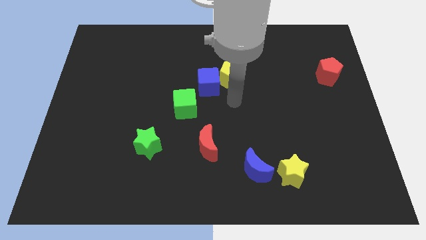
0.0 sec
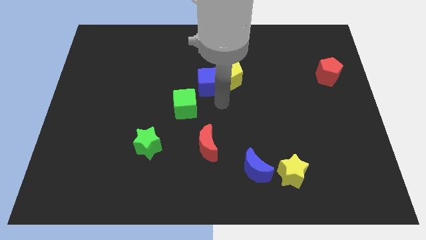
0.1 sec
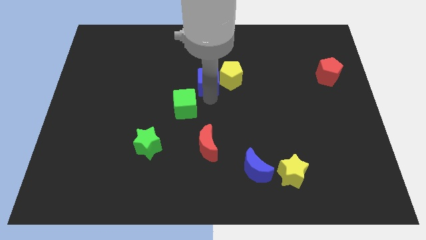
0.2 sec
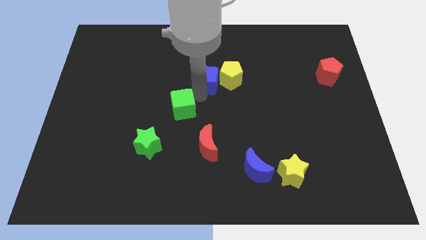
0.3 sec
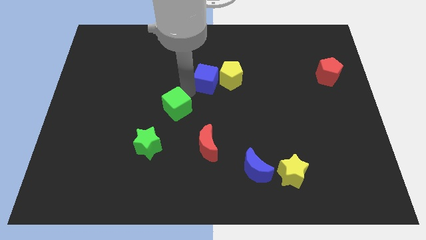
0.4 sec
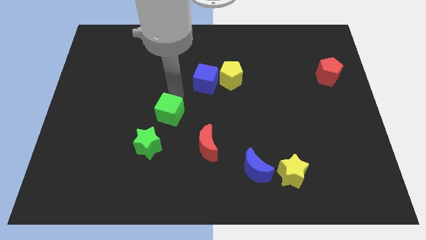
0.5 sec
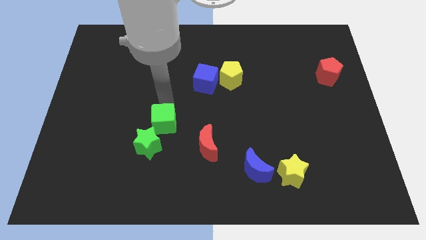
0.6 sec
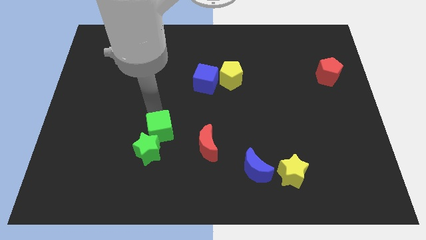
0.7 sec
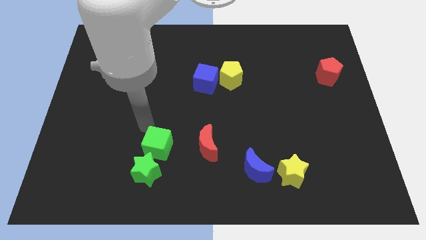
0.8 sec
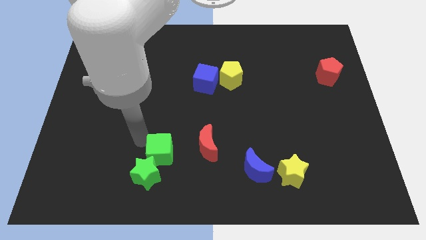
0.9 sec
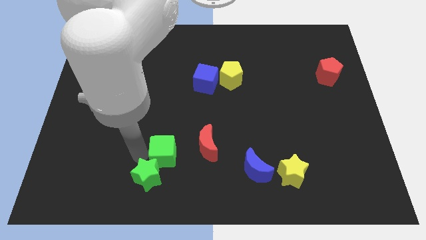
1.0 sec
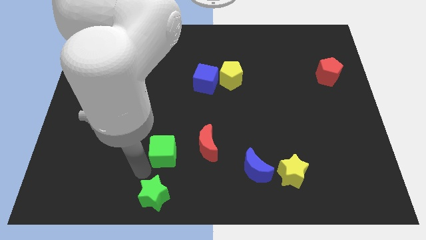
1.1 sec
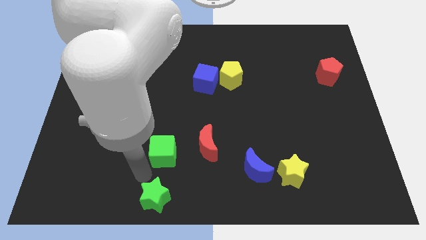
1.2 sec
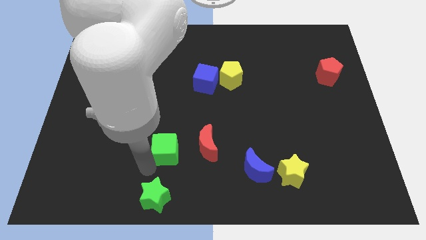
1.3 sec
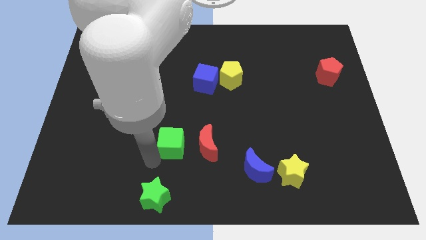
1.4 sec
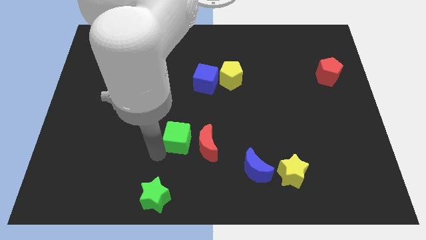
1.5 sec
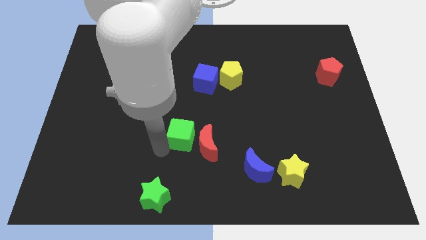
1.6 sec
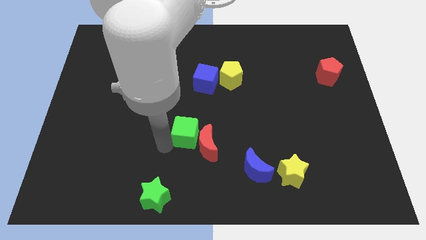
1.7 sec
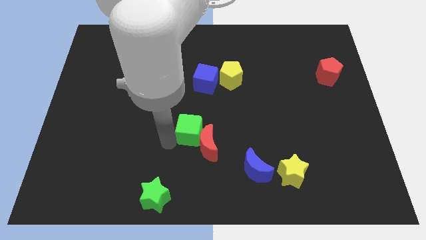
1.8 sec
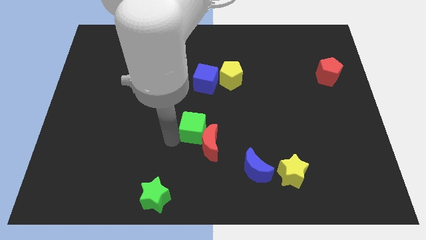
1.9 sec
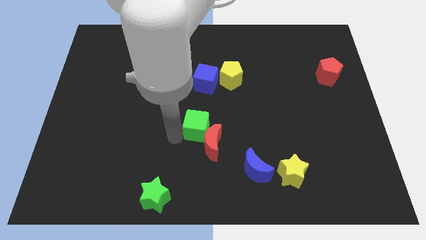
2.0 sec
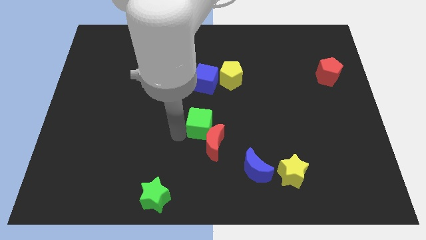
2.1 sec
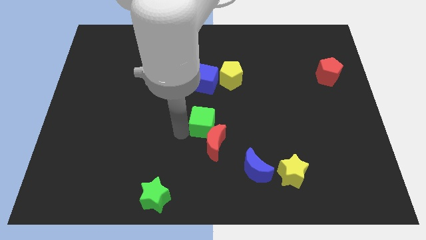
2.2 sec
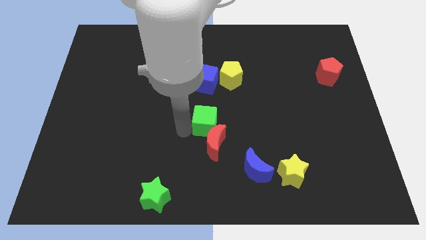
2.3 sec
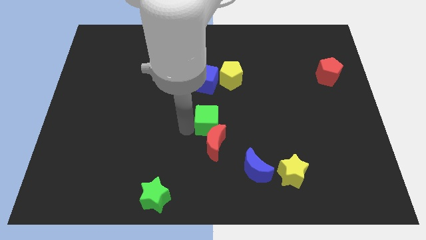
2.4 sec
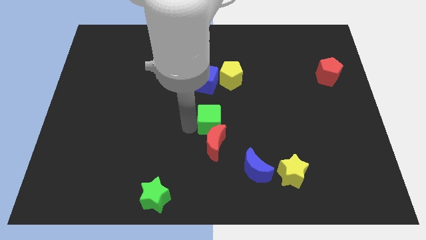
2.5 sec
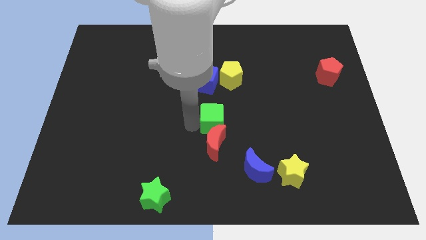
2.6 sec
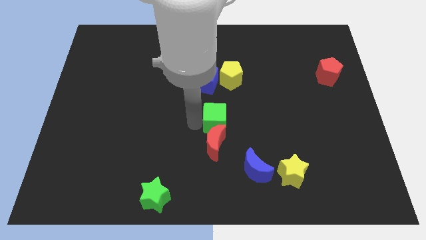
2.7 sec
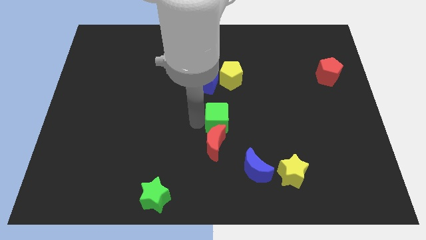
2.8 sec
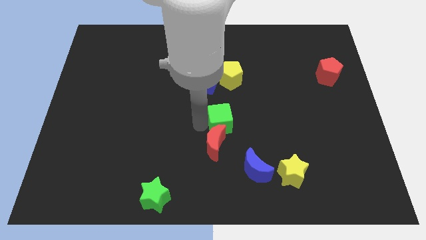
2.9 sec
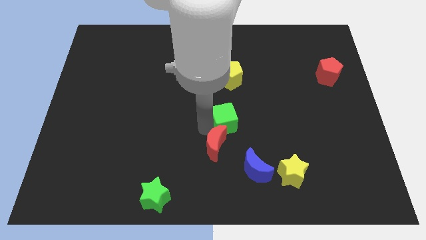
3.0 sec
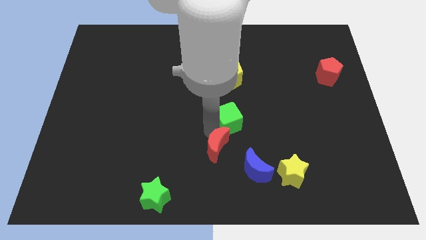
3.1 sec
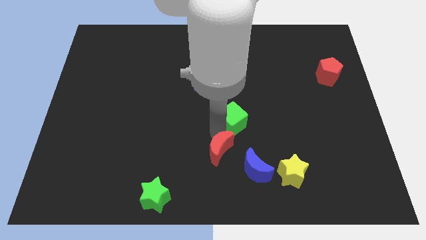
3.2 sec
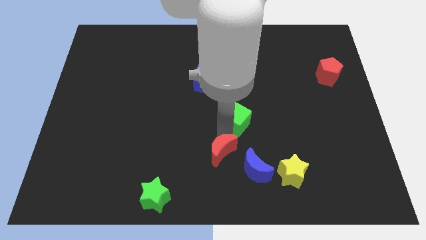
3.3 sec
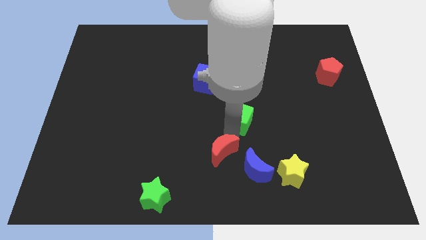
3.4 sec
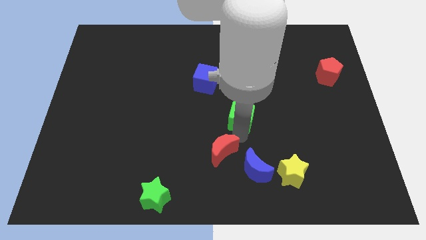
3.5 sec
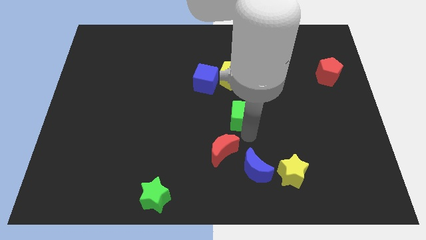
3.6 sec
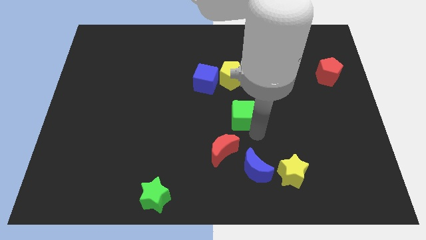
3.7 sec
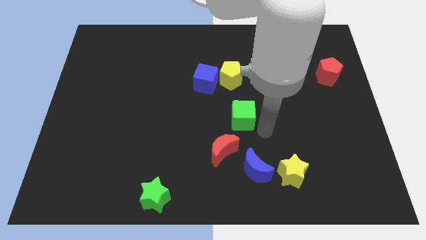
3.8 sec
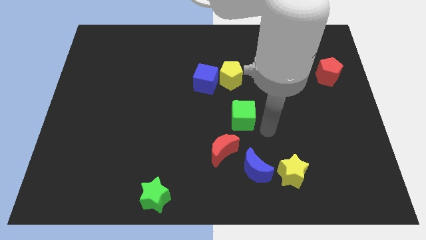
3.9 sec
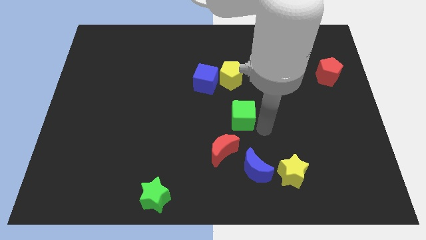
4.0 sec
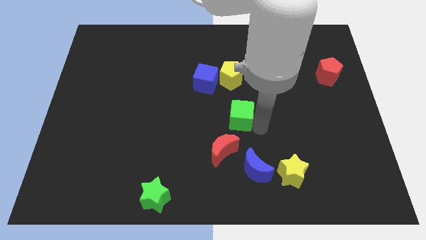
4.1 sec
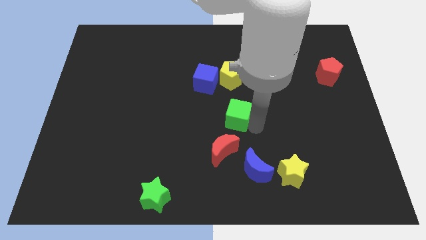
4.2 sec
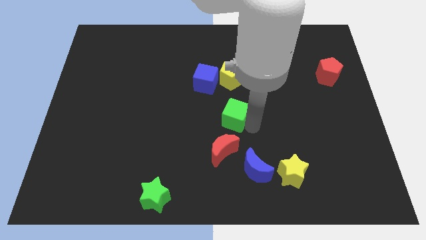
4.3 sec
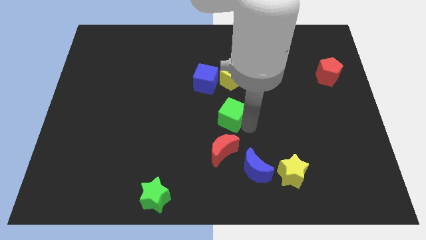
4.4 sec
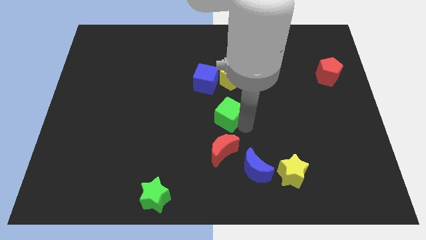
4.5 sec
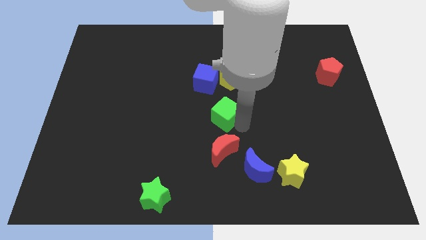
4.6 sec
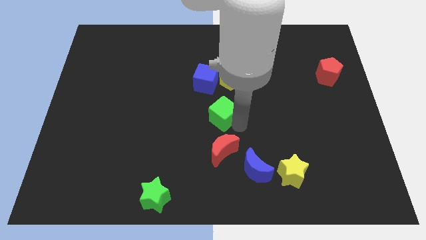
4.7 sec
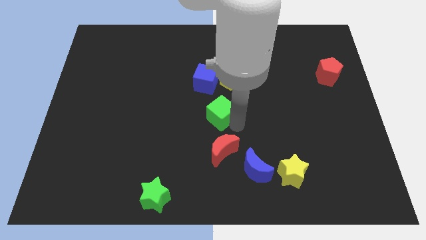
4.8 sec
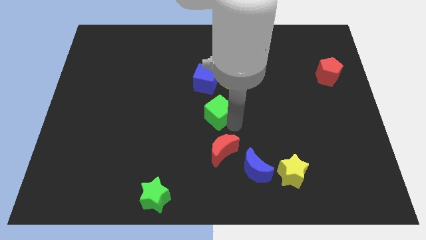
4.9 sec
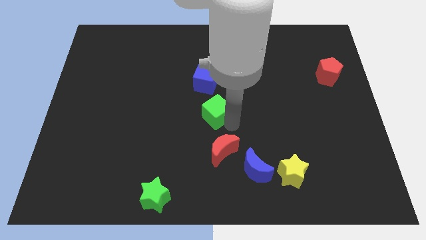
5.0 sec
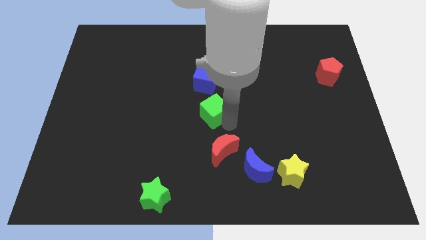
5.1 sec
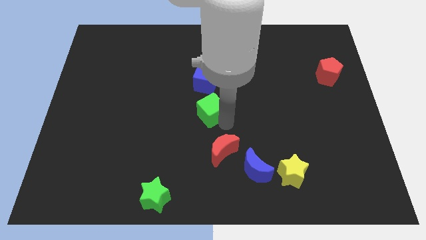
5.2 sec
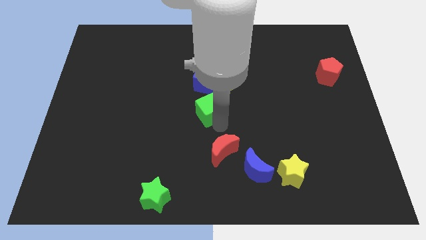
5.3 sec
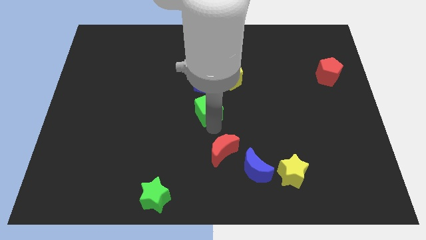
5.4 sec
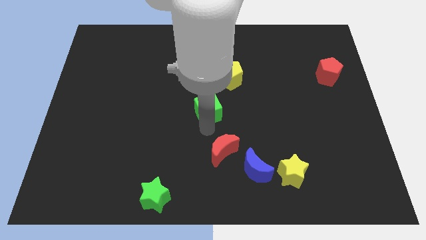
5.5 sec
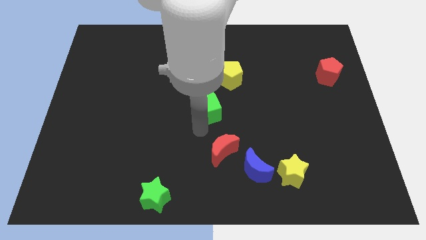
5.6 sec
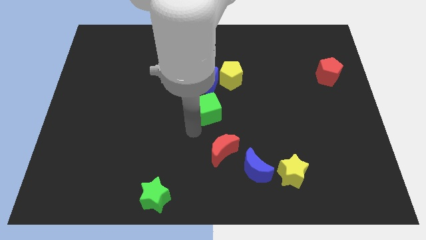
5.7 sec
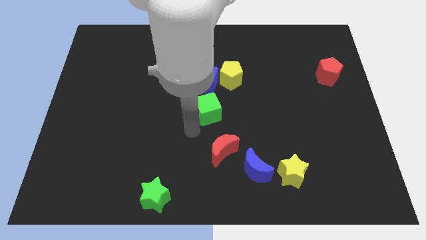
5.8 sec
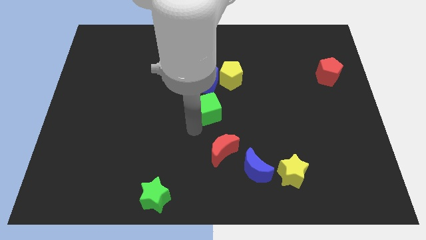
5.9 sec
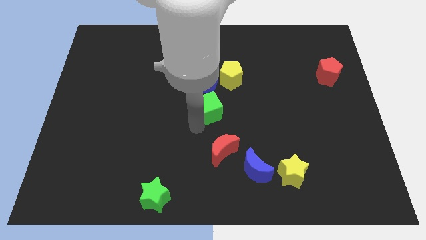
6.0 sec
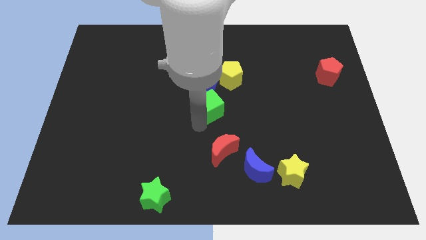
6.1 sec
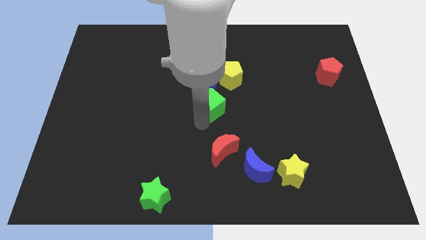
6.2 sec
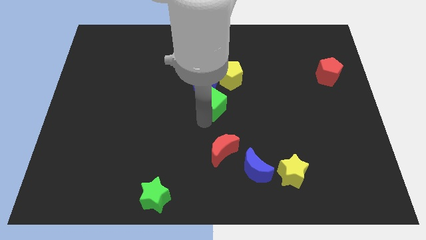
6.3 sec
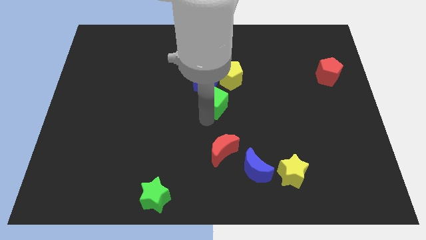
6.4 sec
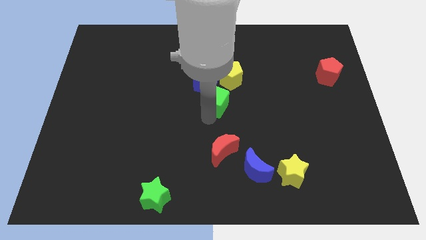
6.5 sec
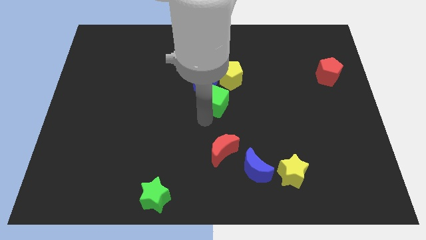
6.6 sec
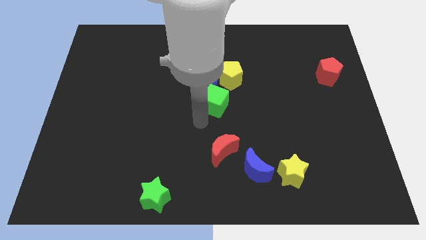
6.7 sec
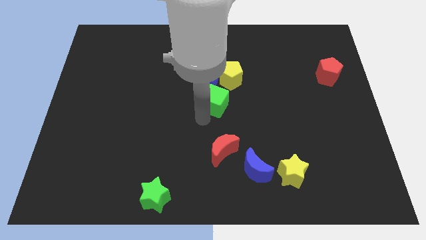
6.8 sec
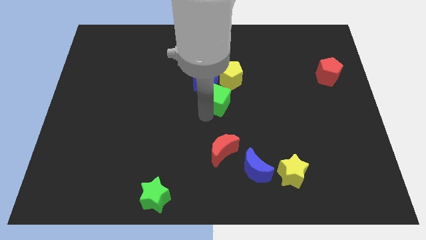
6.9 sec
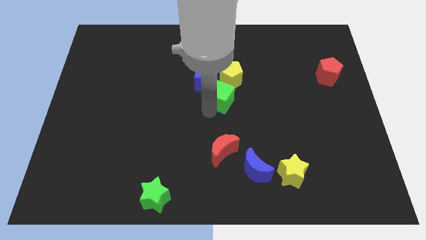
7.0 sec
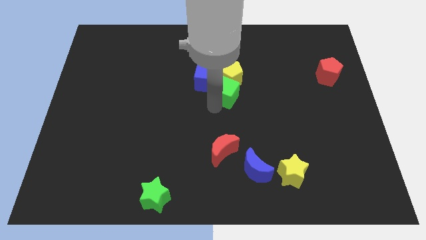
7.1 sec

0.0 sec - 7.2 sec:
push the green cube towards the yellow pentagon

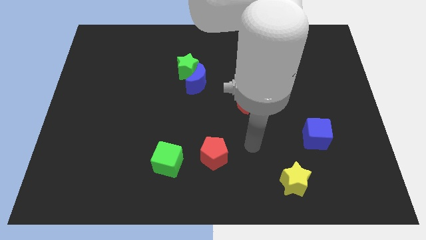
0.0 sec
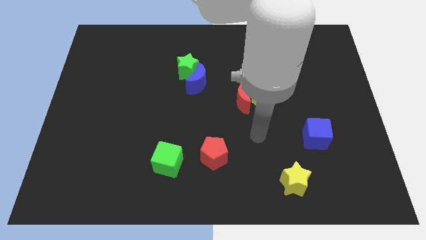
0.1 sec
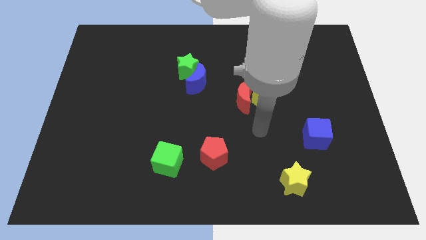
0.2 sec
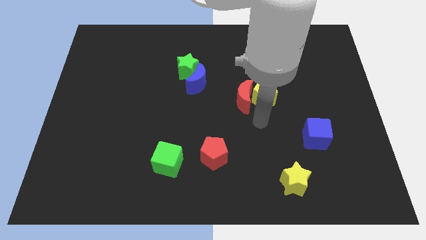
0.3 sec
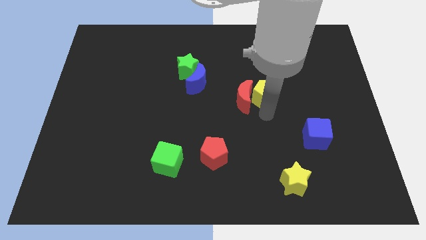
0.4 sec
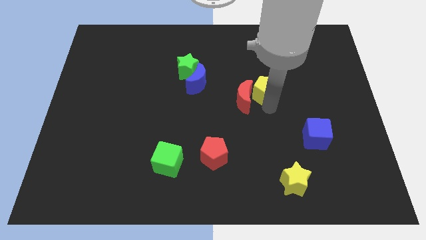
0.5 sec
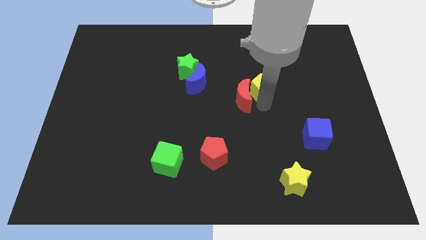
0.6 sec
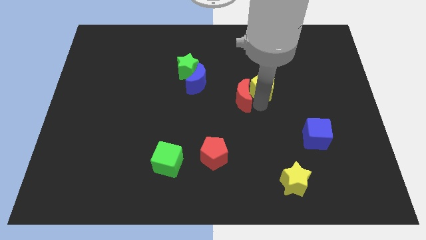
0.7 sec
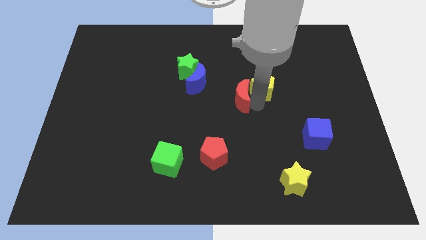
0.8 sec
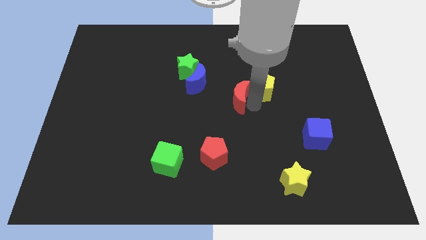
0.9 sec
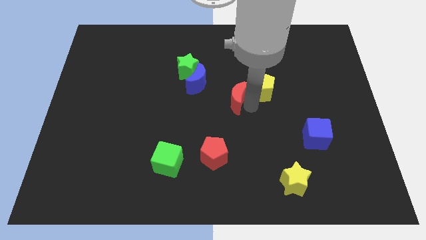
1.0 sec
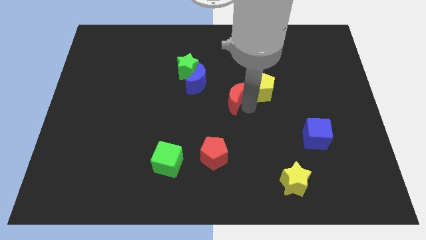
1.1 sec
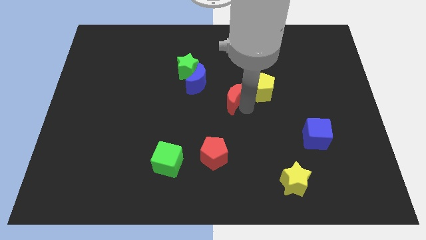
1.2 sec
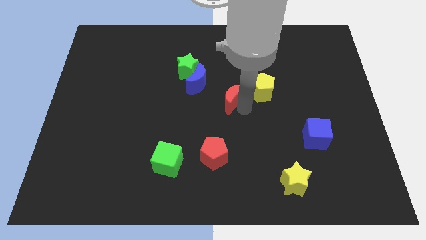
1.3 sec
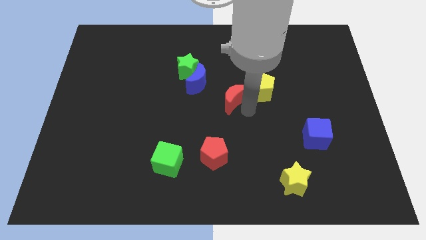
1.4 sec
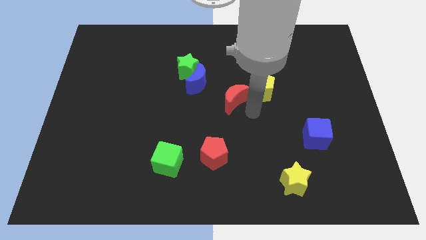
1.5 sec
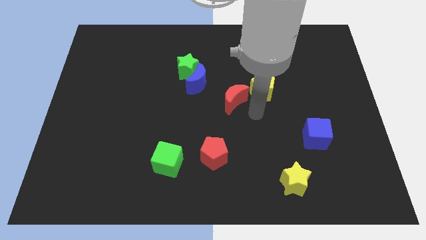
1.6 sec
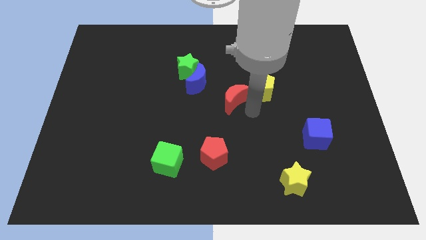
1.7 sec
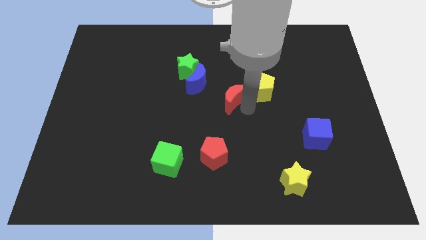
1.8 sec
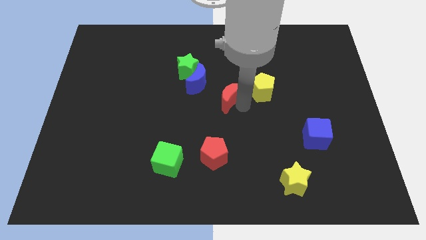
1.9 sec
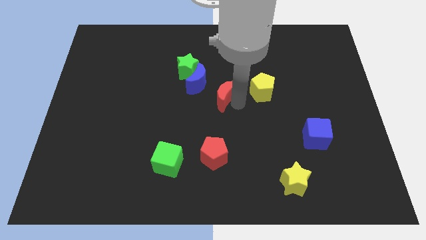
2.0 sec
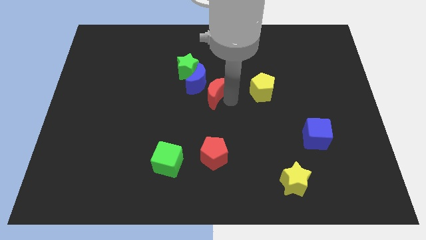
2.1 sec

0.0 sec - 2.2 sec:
put the red moon next to the blue moon
